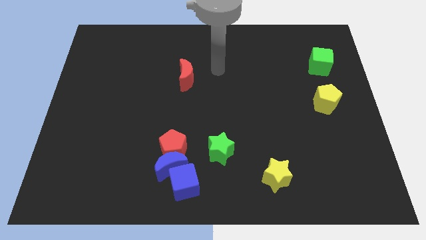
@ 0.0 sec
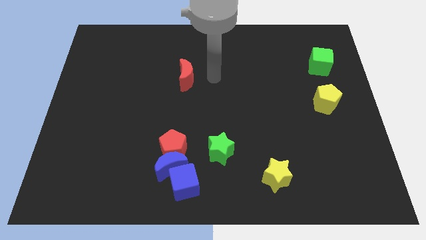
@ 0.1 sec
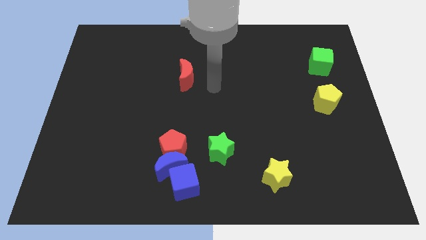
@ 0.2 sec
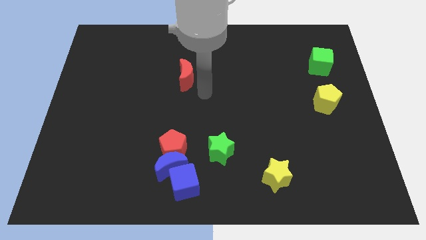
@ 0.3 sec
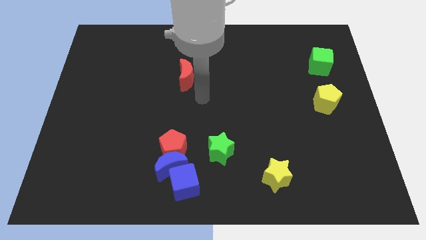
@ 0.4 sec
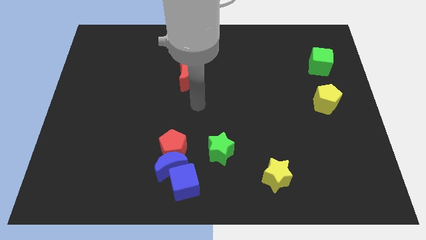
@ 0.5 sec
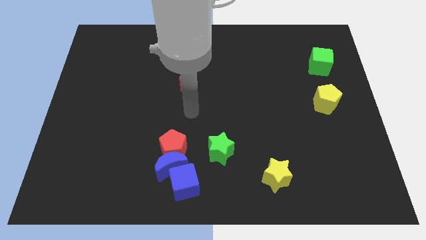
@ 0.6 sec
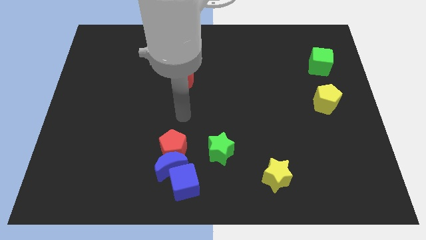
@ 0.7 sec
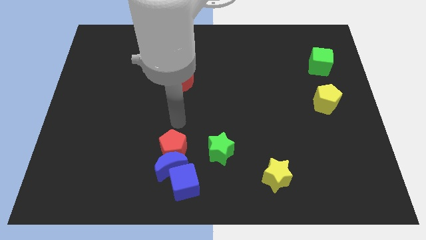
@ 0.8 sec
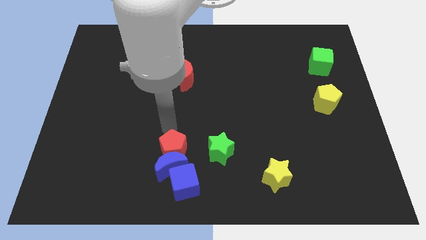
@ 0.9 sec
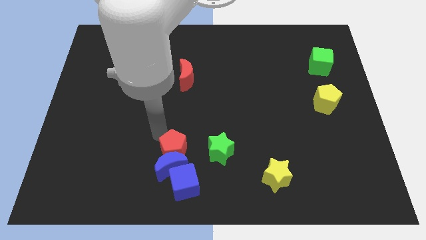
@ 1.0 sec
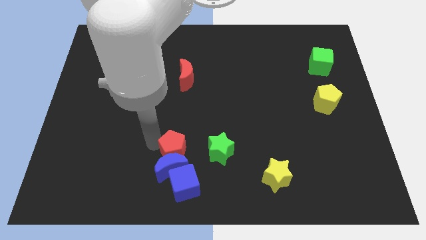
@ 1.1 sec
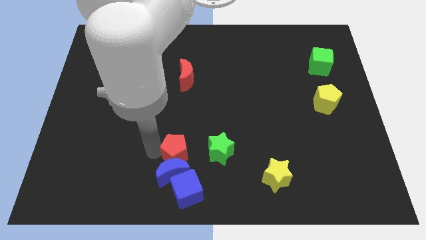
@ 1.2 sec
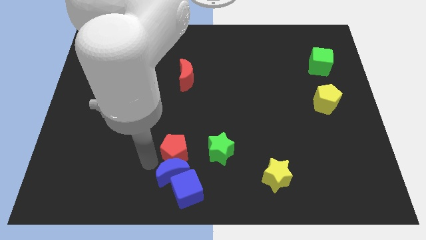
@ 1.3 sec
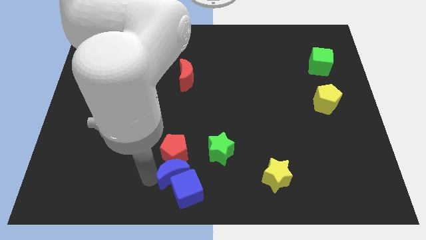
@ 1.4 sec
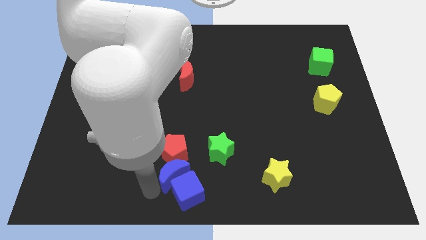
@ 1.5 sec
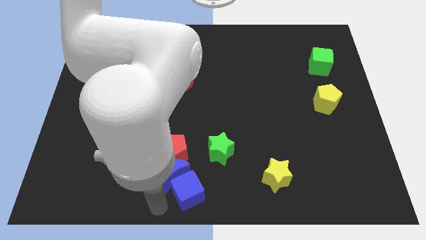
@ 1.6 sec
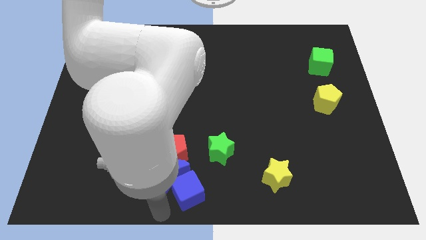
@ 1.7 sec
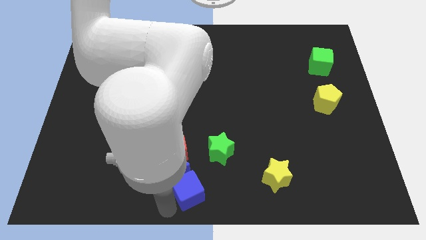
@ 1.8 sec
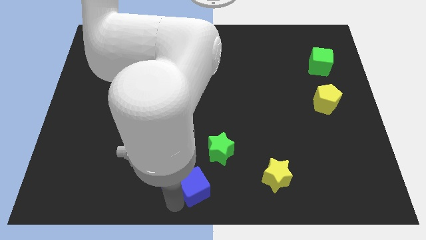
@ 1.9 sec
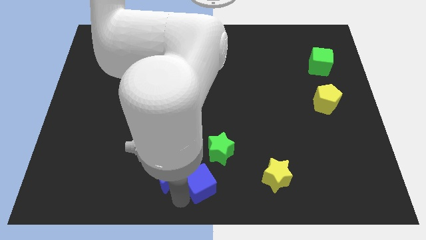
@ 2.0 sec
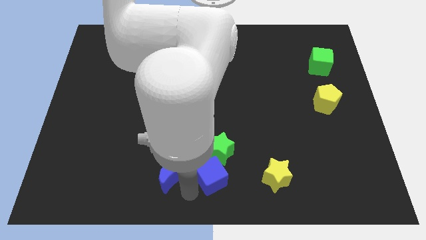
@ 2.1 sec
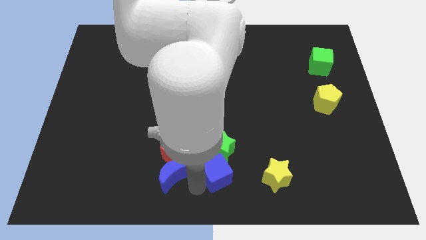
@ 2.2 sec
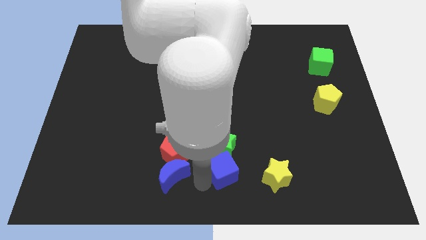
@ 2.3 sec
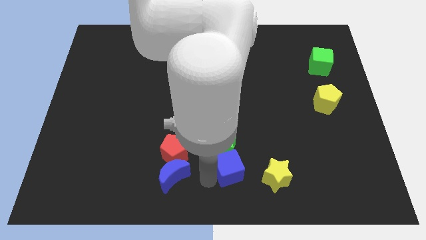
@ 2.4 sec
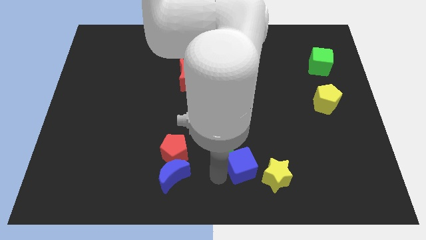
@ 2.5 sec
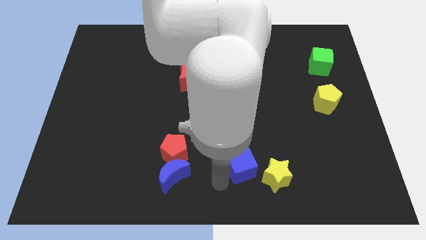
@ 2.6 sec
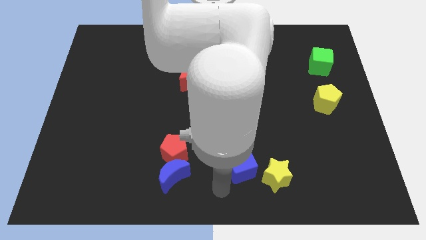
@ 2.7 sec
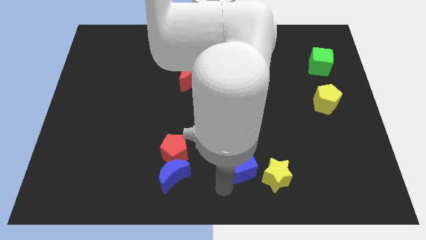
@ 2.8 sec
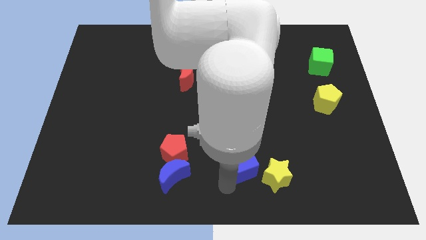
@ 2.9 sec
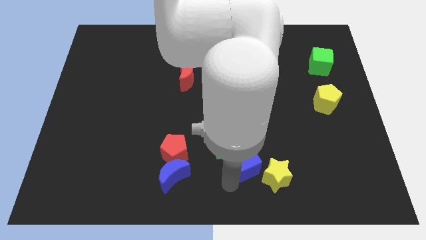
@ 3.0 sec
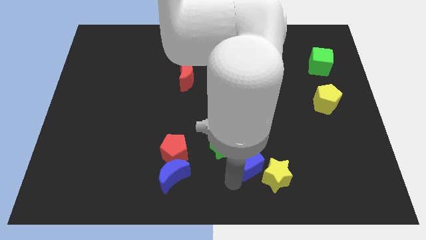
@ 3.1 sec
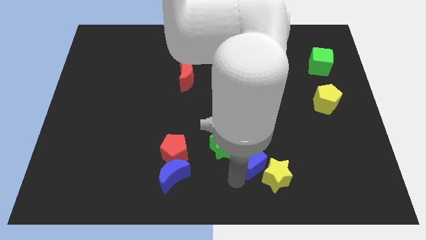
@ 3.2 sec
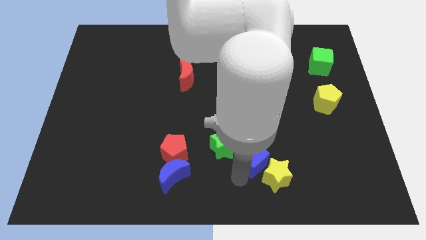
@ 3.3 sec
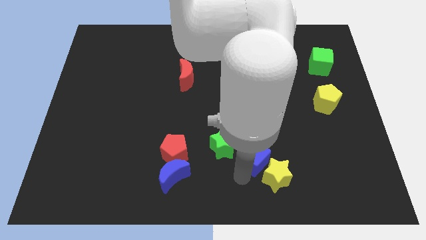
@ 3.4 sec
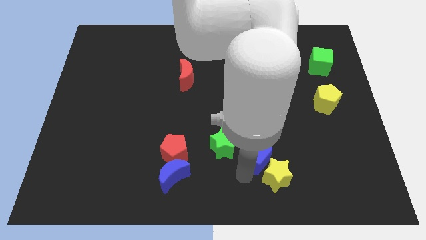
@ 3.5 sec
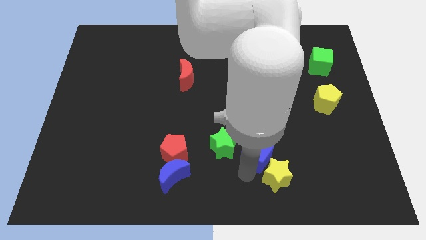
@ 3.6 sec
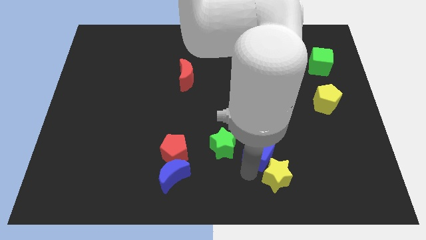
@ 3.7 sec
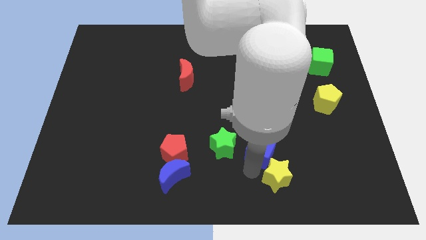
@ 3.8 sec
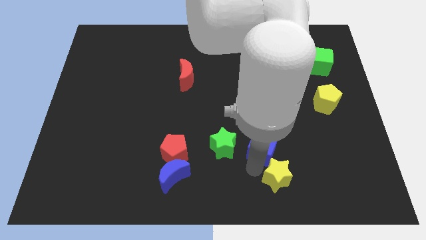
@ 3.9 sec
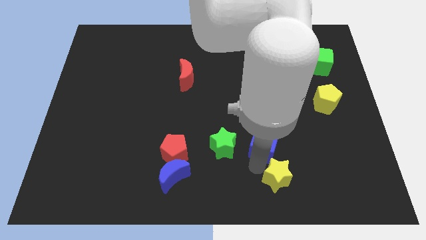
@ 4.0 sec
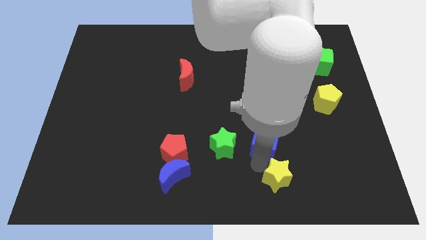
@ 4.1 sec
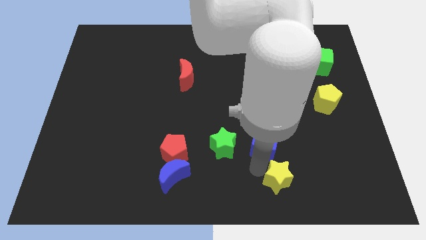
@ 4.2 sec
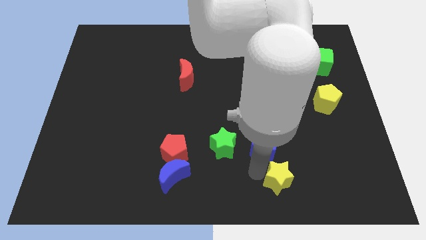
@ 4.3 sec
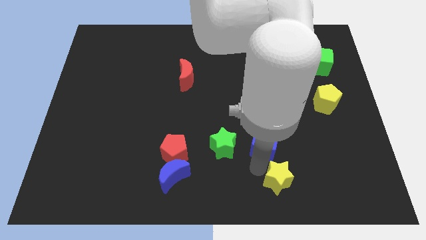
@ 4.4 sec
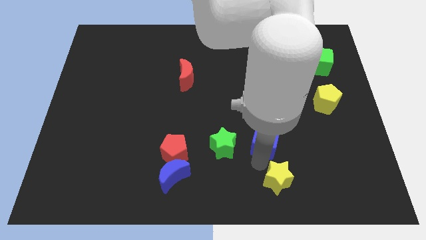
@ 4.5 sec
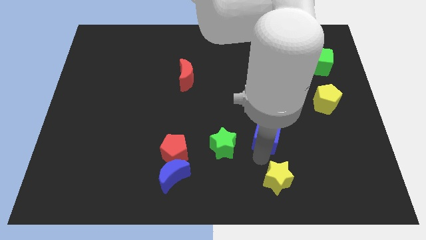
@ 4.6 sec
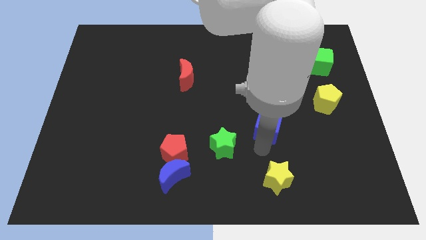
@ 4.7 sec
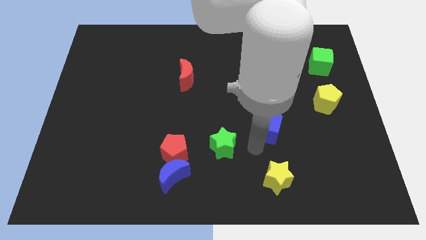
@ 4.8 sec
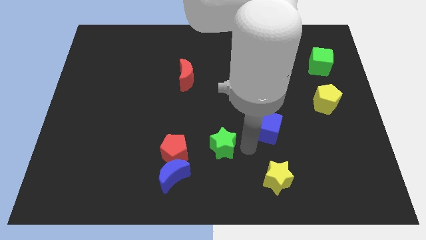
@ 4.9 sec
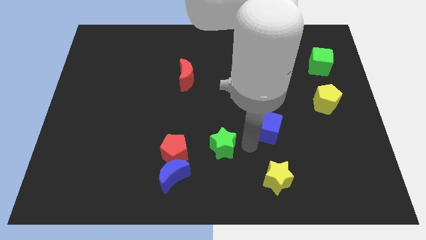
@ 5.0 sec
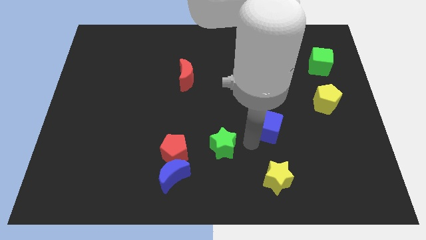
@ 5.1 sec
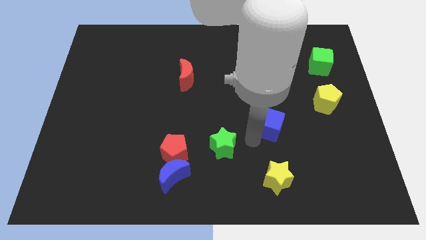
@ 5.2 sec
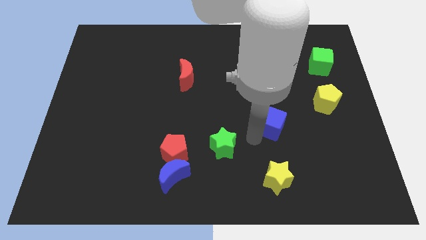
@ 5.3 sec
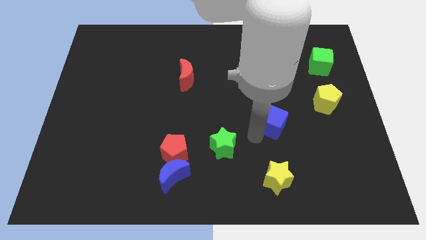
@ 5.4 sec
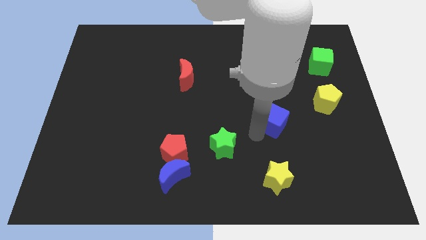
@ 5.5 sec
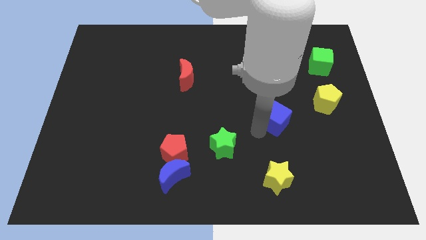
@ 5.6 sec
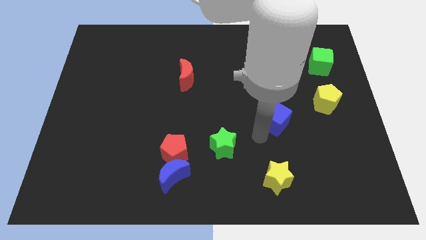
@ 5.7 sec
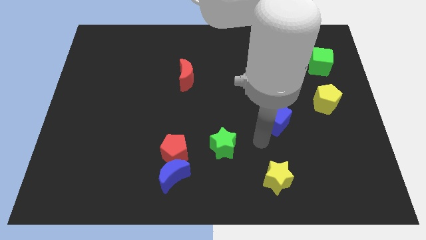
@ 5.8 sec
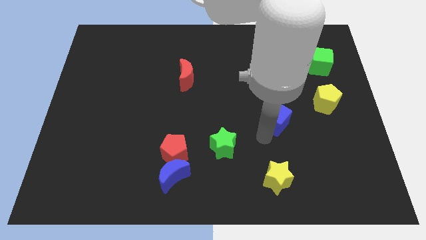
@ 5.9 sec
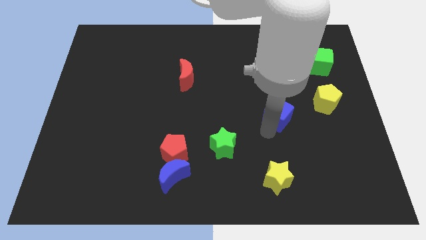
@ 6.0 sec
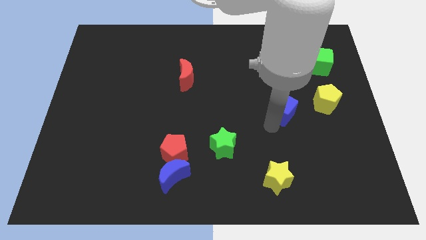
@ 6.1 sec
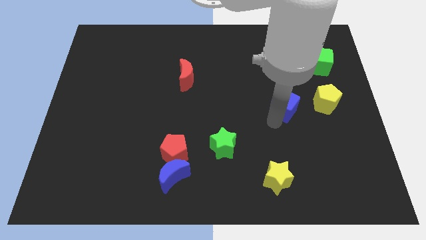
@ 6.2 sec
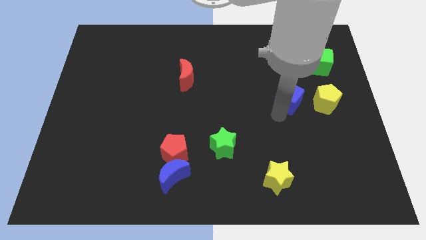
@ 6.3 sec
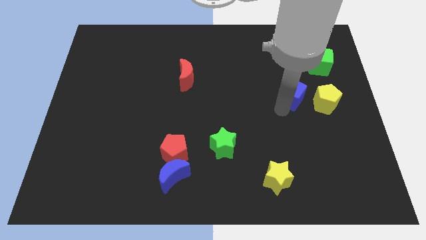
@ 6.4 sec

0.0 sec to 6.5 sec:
move the blue cube to the top left of the yellow pentagon
